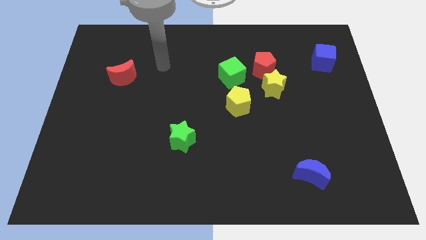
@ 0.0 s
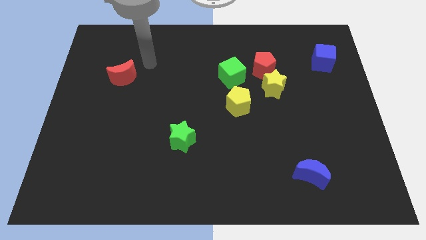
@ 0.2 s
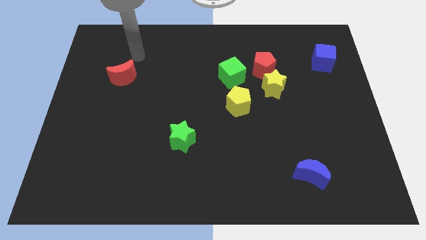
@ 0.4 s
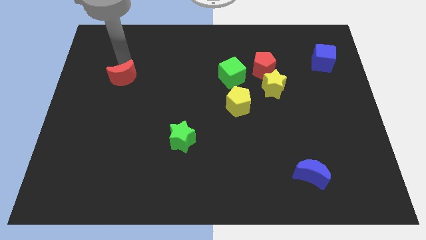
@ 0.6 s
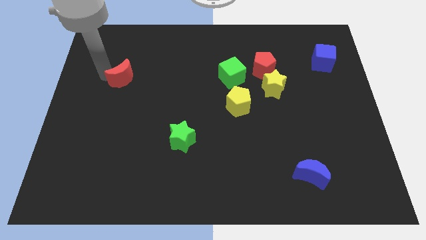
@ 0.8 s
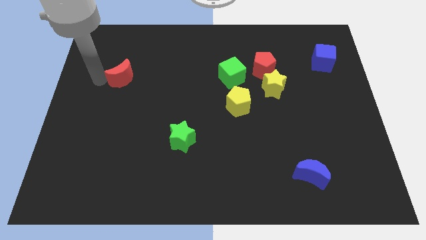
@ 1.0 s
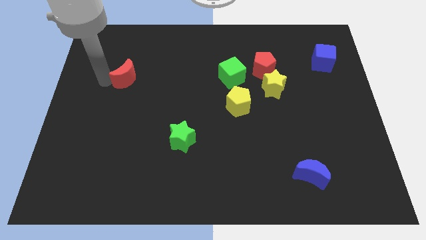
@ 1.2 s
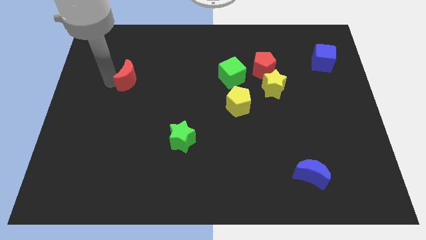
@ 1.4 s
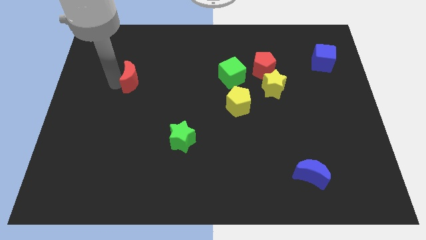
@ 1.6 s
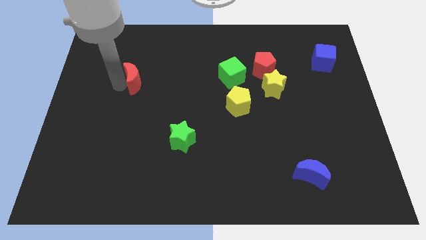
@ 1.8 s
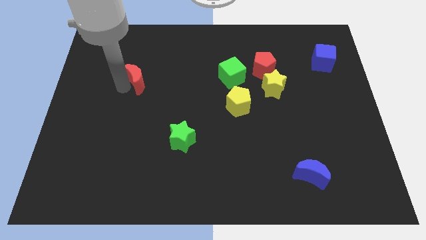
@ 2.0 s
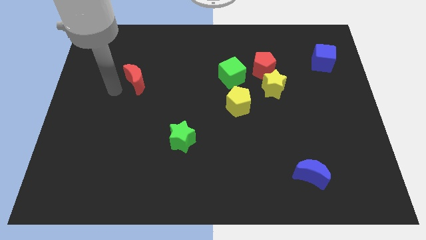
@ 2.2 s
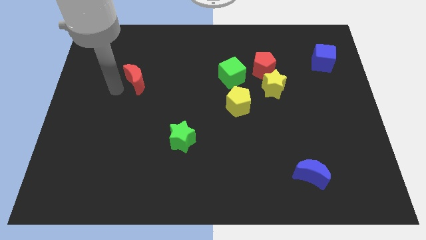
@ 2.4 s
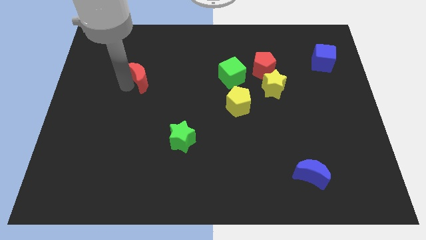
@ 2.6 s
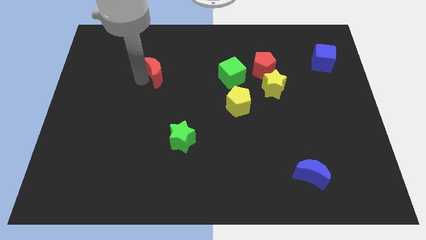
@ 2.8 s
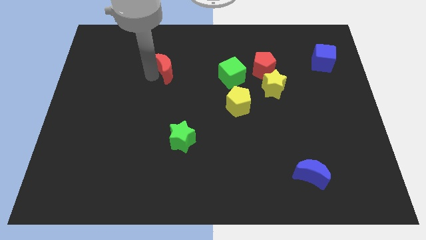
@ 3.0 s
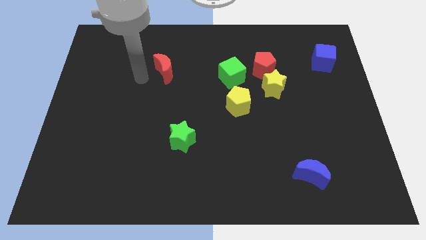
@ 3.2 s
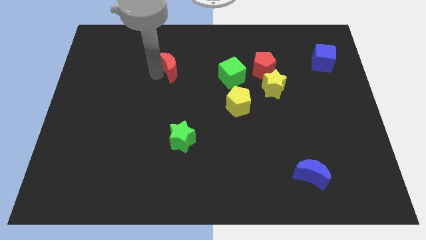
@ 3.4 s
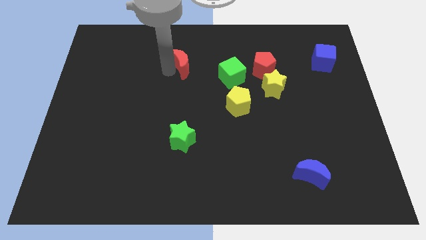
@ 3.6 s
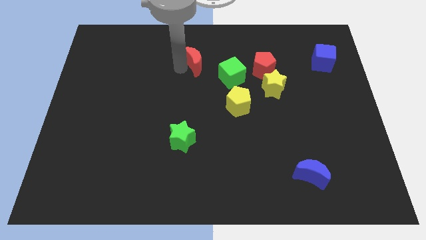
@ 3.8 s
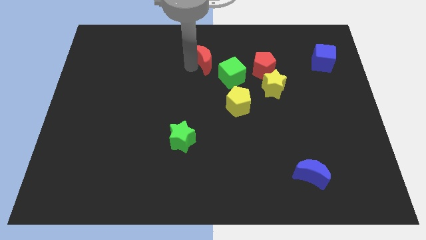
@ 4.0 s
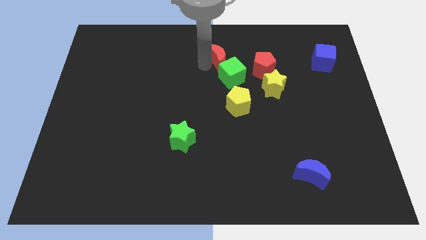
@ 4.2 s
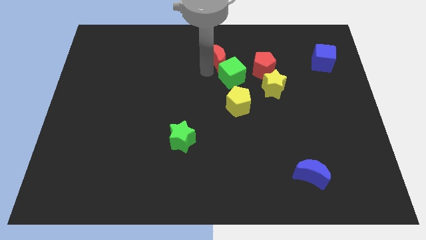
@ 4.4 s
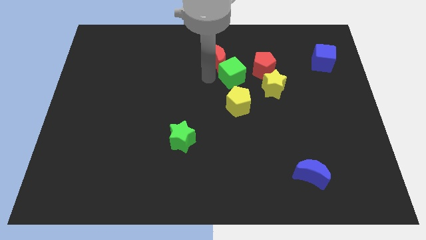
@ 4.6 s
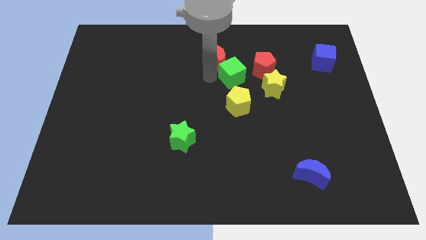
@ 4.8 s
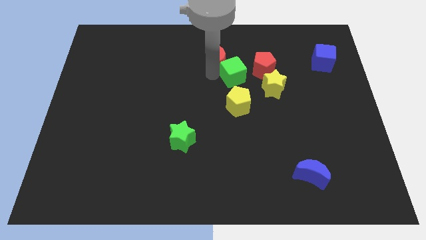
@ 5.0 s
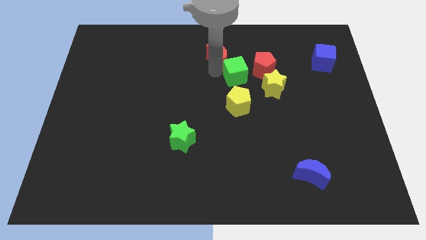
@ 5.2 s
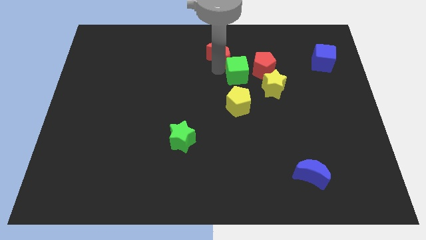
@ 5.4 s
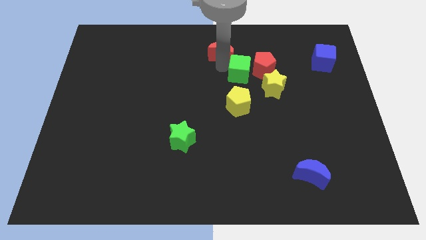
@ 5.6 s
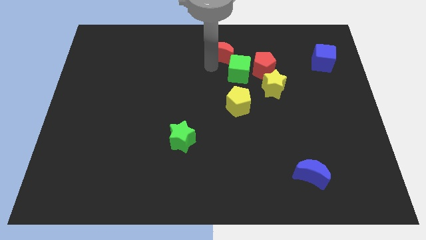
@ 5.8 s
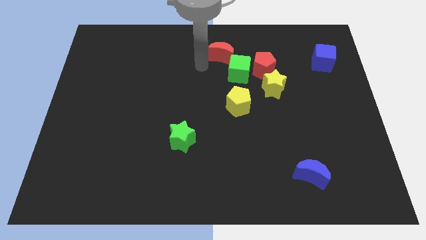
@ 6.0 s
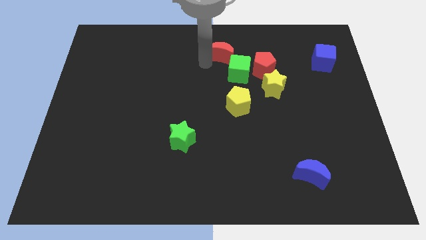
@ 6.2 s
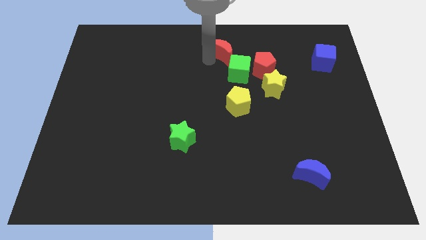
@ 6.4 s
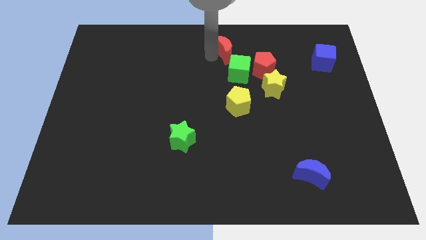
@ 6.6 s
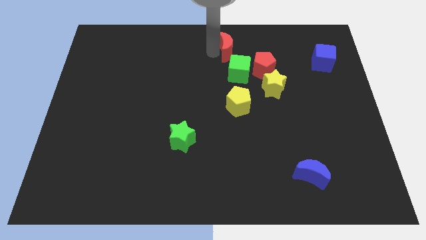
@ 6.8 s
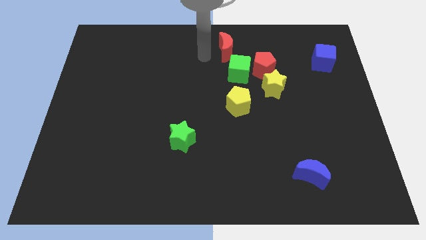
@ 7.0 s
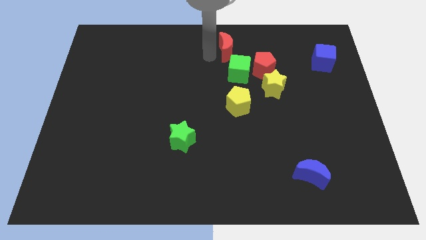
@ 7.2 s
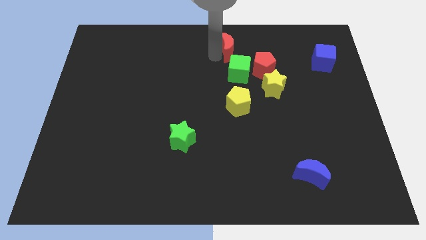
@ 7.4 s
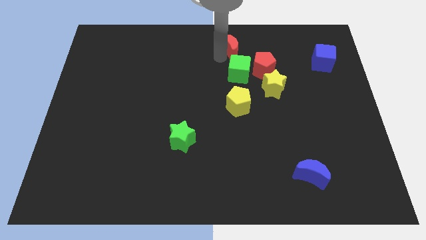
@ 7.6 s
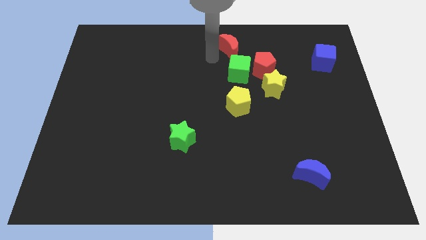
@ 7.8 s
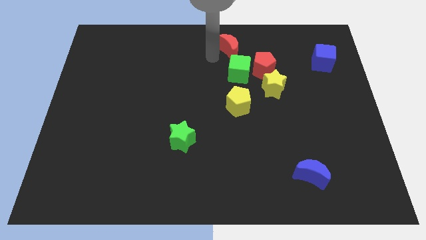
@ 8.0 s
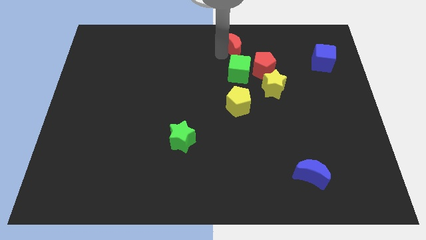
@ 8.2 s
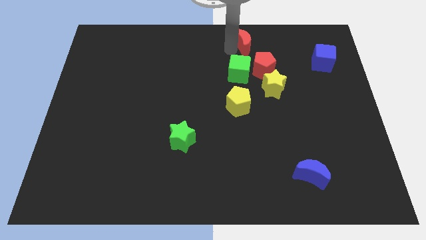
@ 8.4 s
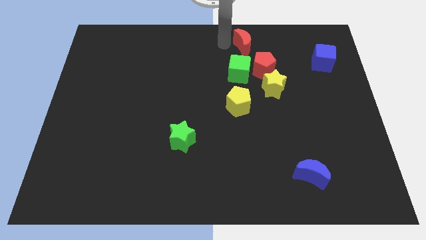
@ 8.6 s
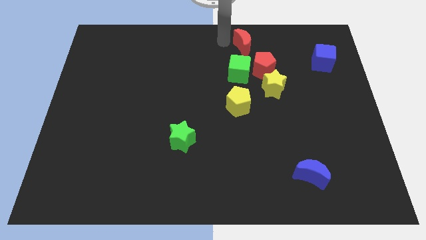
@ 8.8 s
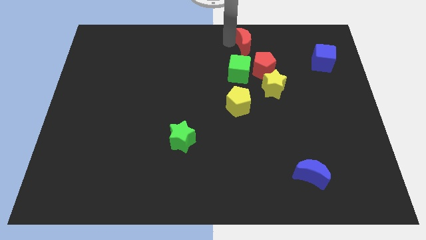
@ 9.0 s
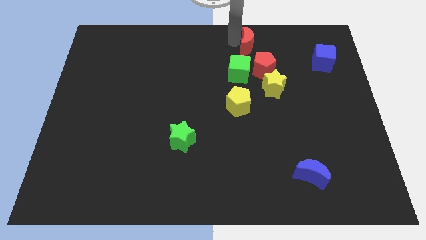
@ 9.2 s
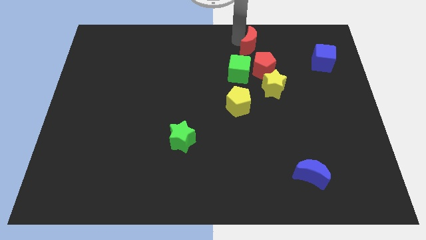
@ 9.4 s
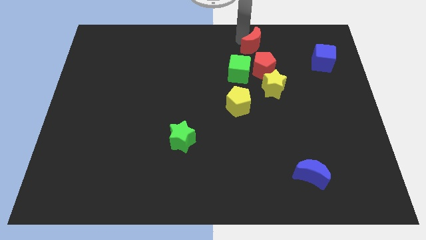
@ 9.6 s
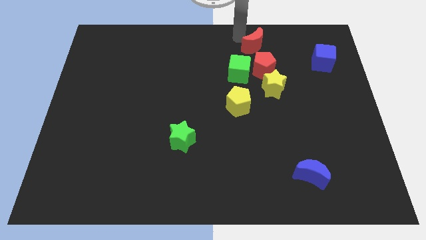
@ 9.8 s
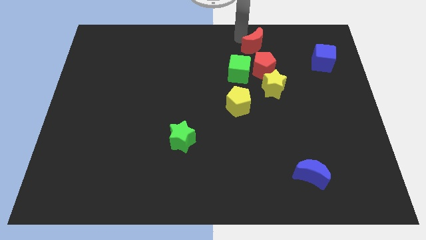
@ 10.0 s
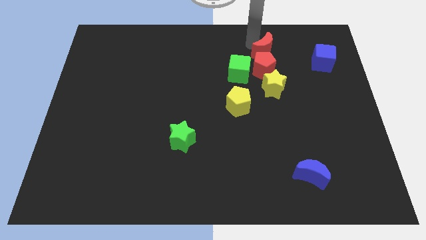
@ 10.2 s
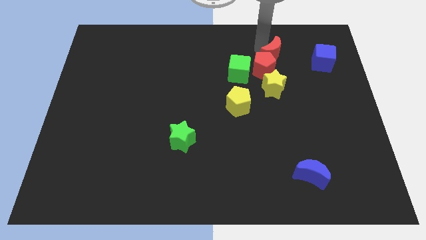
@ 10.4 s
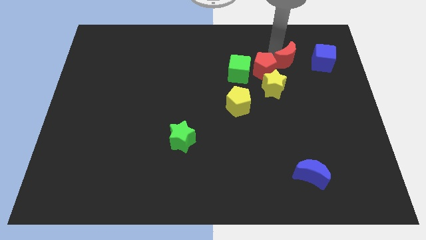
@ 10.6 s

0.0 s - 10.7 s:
slide the red moon diagonally up and to the right of the yellow star

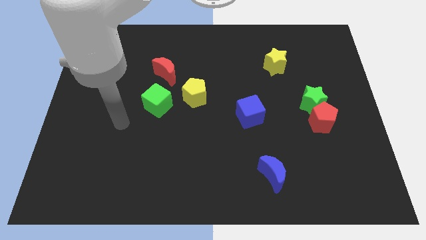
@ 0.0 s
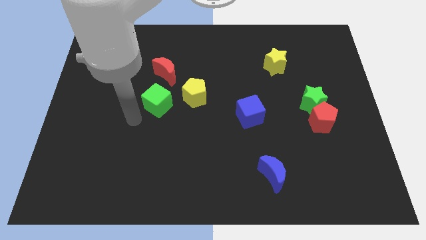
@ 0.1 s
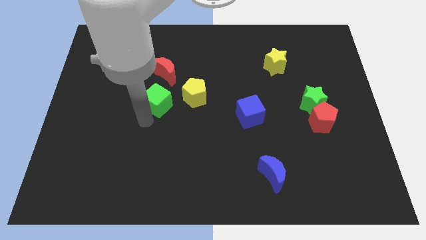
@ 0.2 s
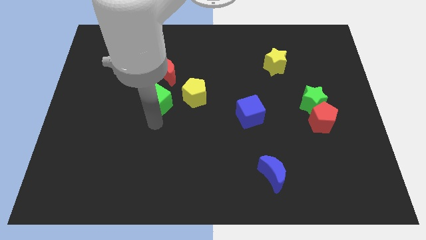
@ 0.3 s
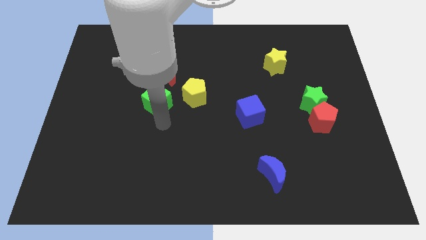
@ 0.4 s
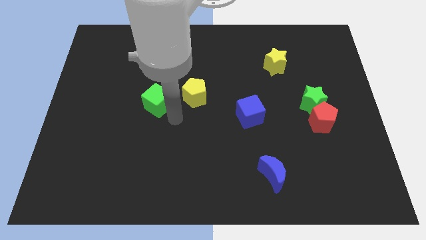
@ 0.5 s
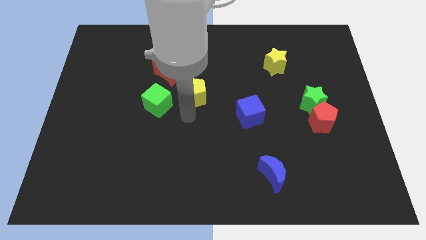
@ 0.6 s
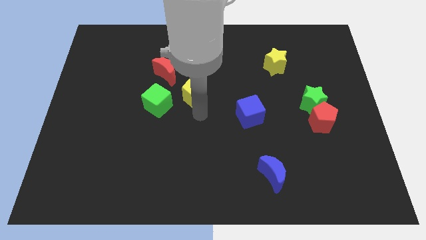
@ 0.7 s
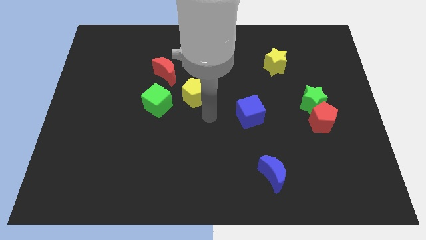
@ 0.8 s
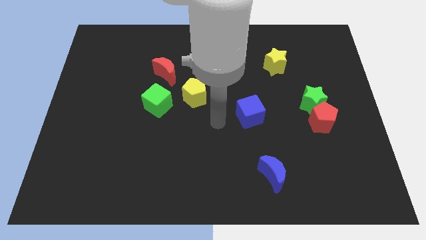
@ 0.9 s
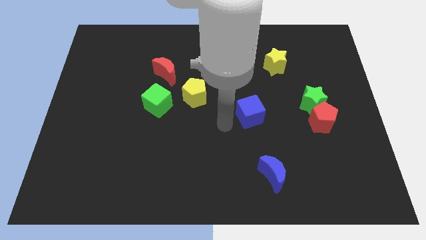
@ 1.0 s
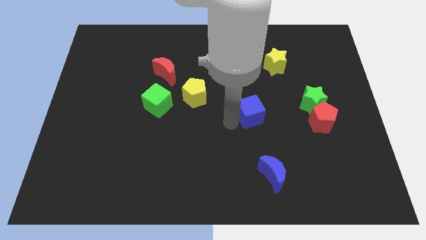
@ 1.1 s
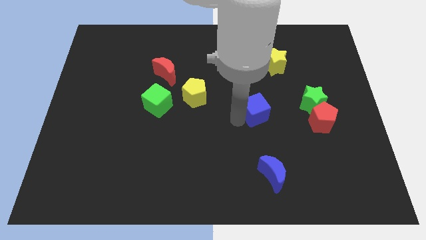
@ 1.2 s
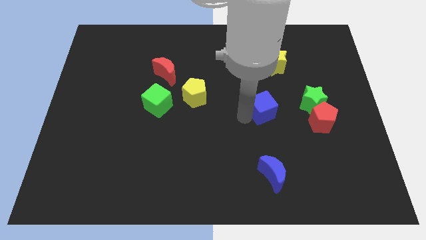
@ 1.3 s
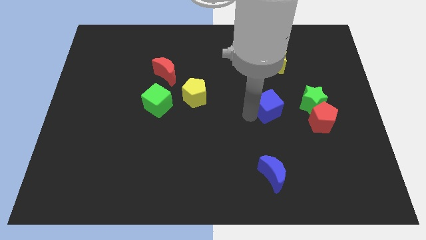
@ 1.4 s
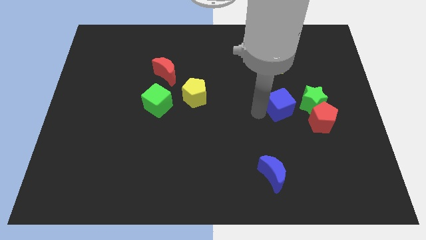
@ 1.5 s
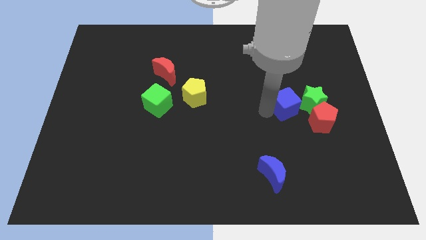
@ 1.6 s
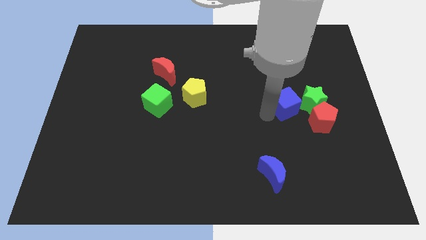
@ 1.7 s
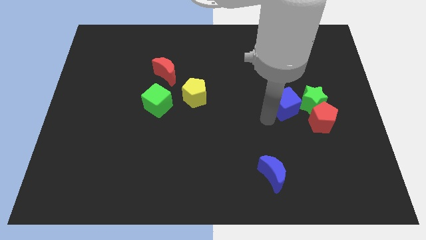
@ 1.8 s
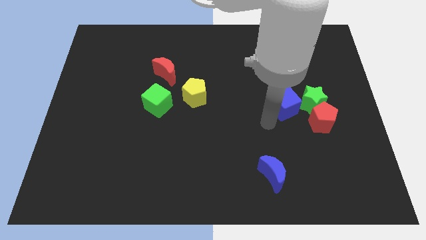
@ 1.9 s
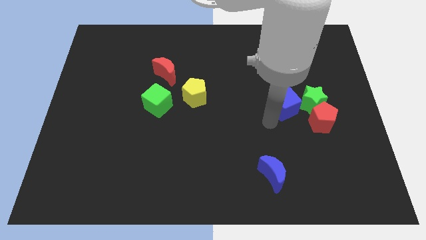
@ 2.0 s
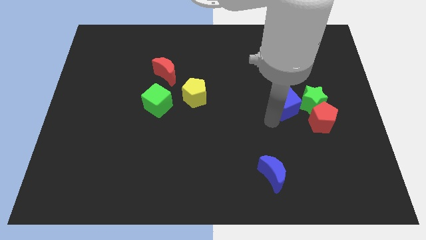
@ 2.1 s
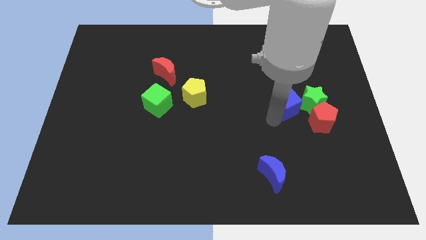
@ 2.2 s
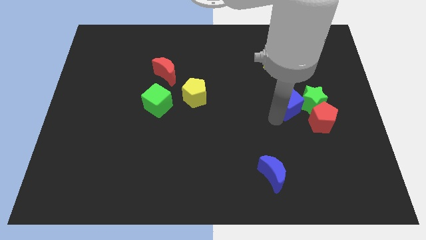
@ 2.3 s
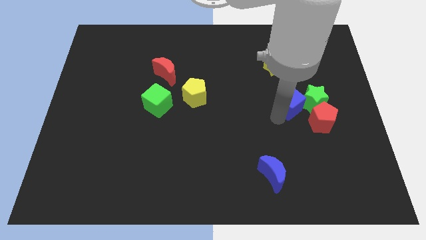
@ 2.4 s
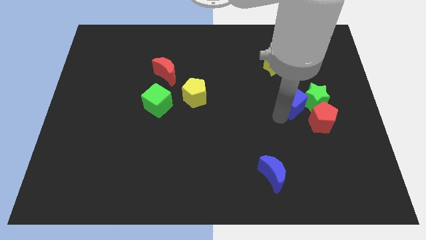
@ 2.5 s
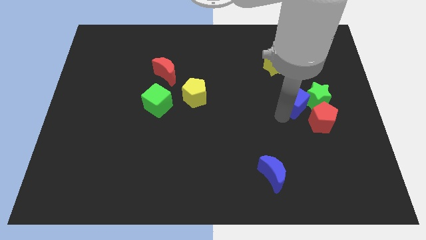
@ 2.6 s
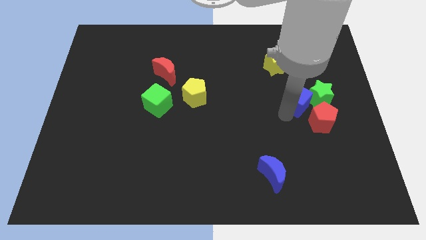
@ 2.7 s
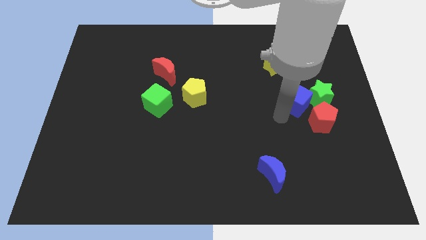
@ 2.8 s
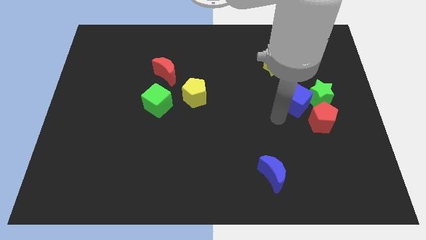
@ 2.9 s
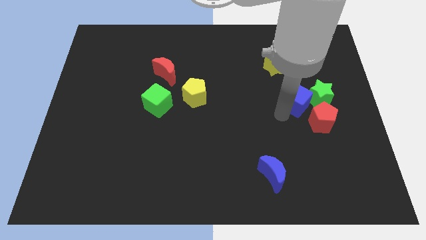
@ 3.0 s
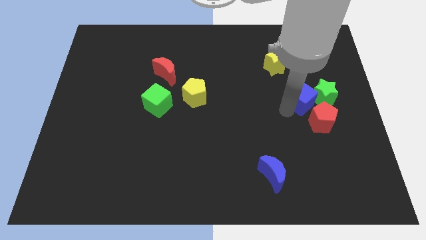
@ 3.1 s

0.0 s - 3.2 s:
move the blue cube to the top of the red pentagon
